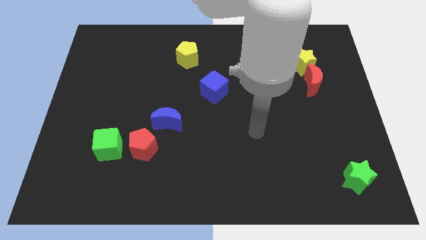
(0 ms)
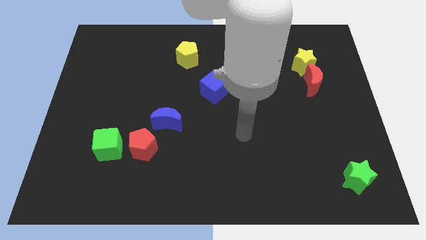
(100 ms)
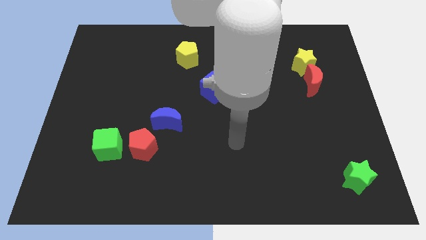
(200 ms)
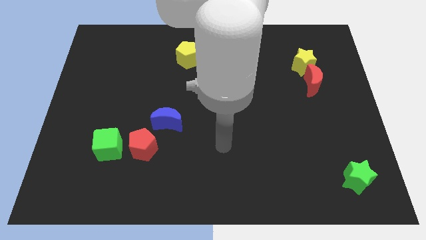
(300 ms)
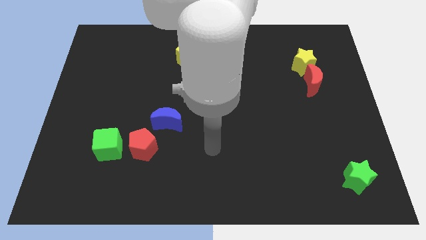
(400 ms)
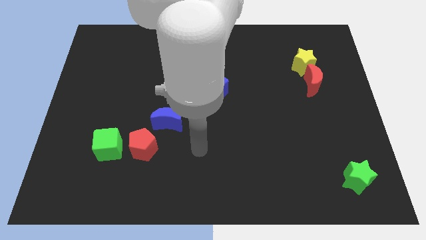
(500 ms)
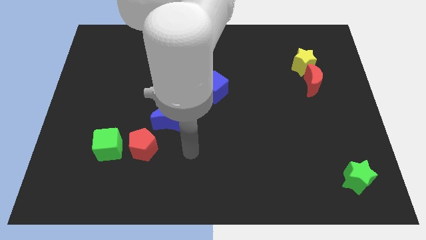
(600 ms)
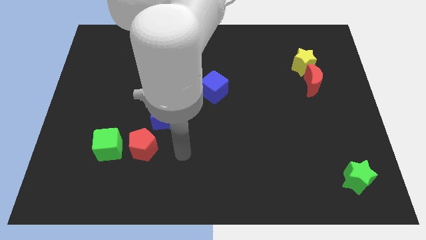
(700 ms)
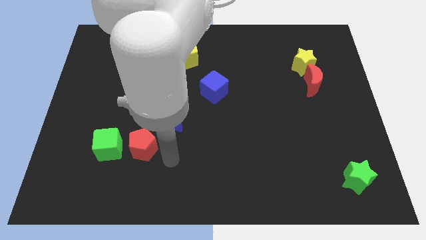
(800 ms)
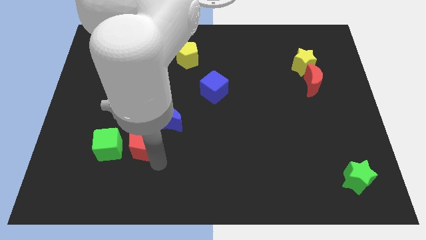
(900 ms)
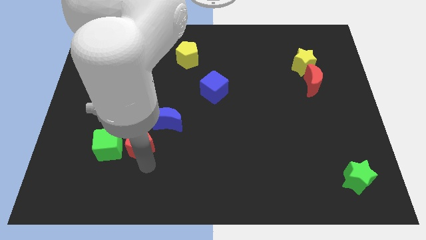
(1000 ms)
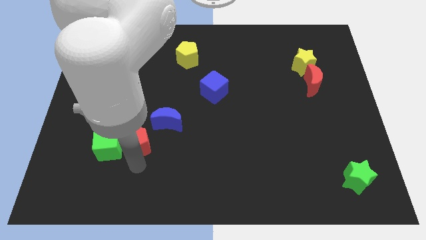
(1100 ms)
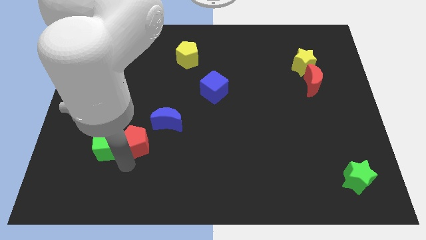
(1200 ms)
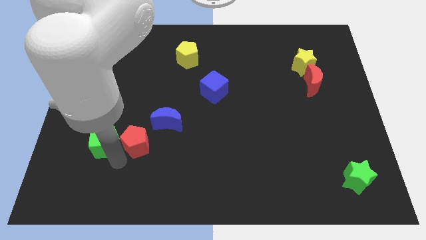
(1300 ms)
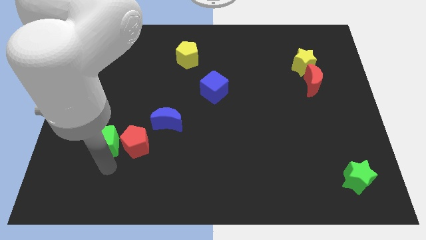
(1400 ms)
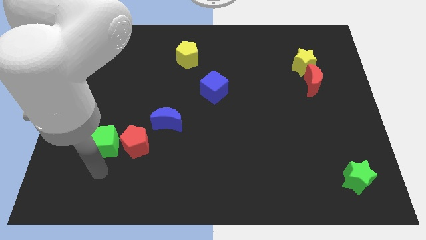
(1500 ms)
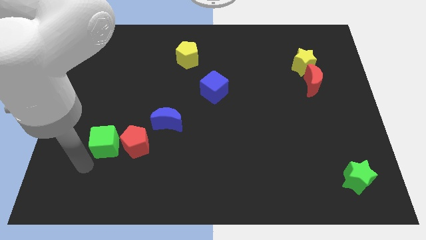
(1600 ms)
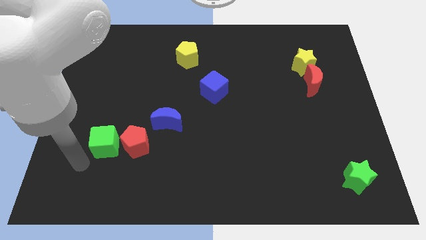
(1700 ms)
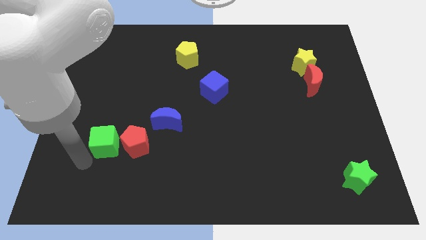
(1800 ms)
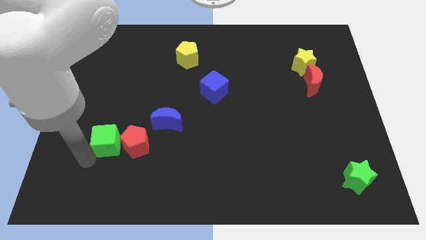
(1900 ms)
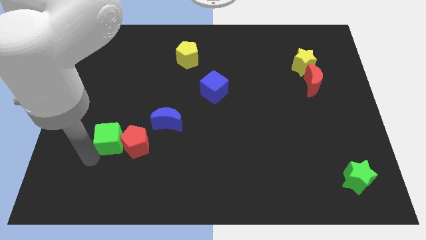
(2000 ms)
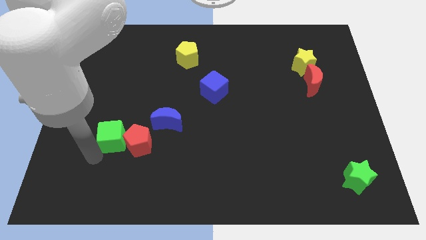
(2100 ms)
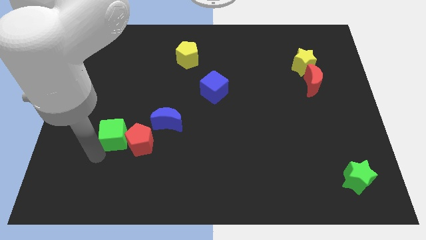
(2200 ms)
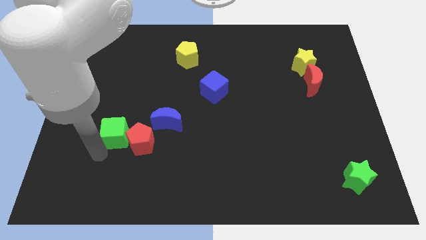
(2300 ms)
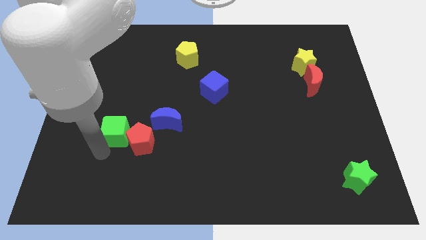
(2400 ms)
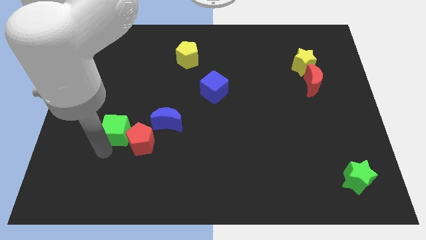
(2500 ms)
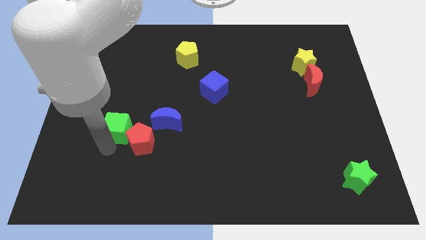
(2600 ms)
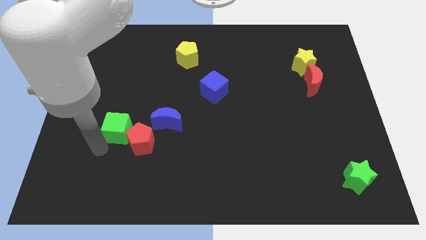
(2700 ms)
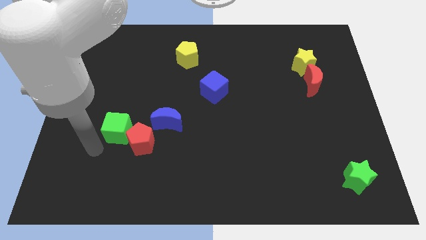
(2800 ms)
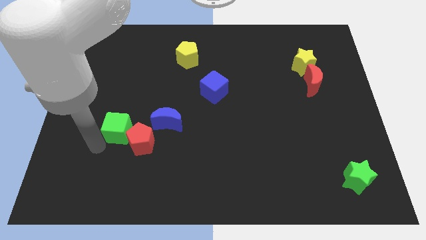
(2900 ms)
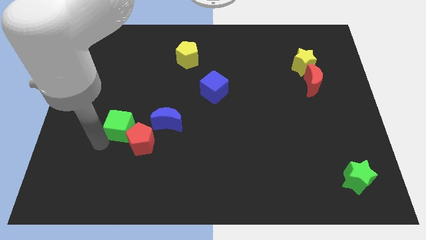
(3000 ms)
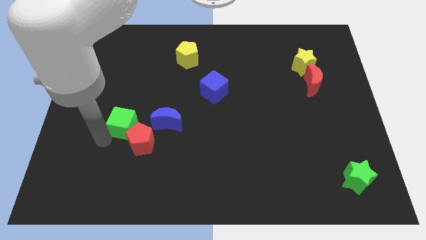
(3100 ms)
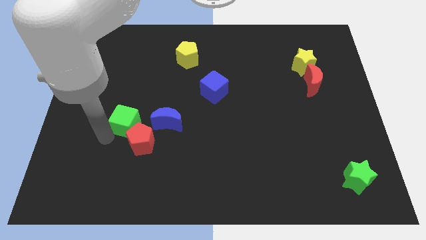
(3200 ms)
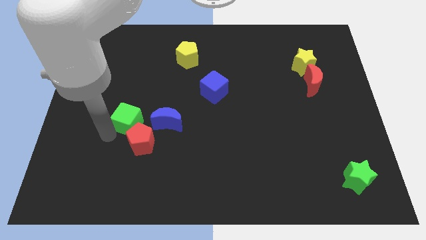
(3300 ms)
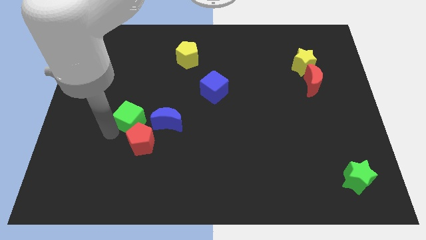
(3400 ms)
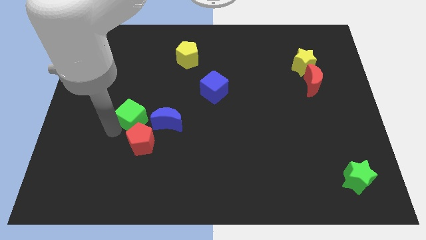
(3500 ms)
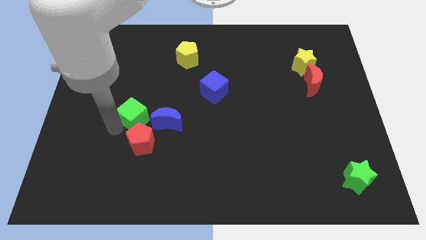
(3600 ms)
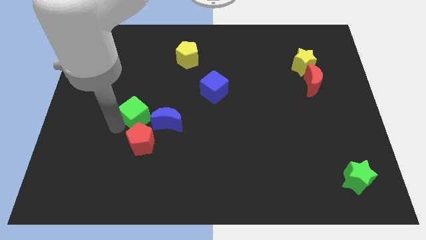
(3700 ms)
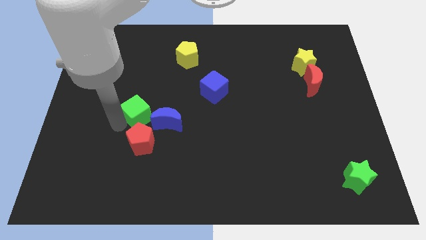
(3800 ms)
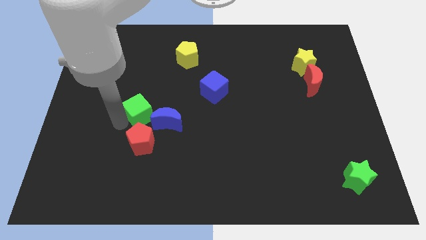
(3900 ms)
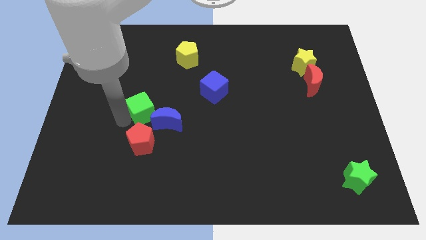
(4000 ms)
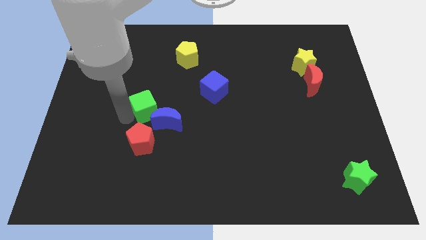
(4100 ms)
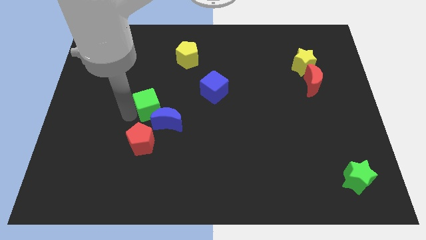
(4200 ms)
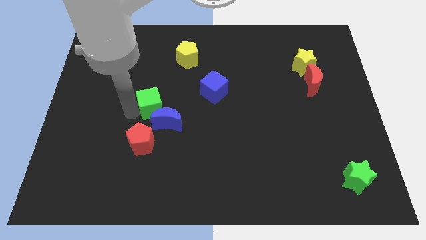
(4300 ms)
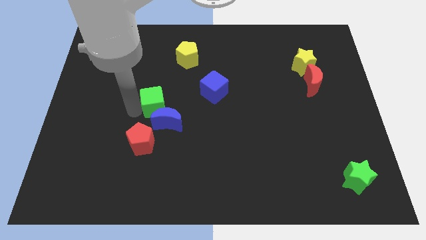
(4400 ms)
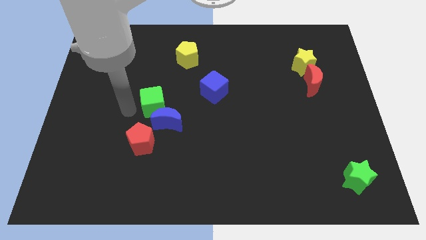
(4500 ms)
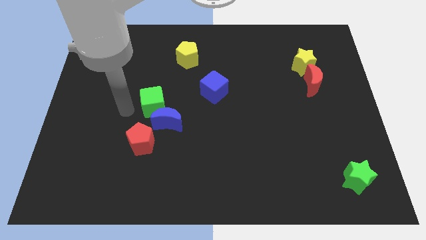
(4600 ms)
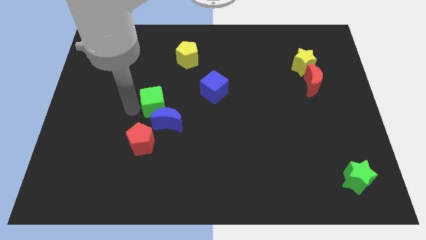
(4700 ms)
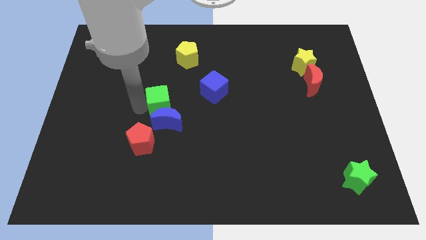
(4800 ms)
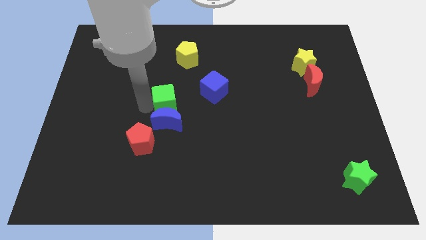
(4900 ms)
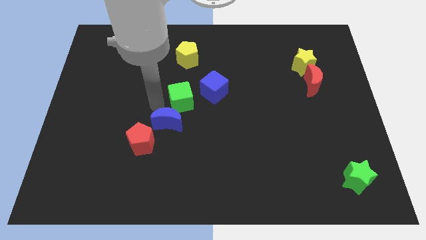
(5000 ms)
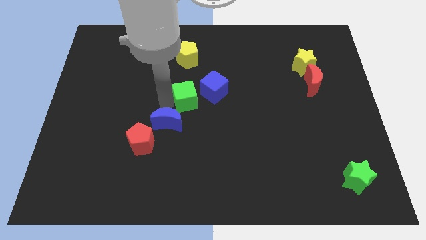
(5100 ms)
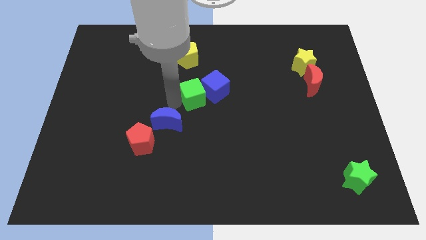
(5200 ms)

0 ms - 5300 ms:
put the green cube towards the blue cube

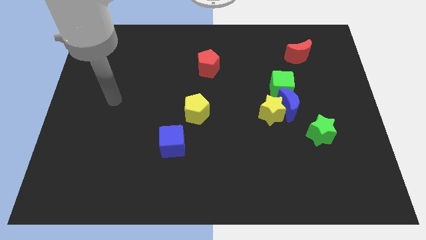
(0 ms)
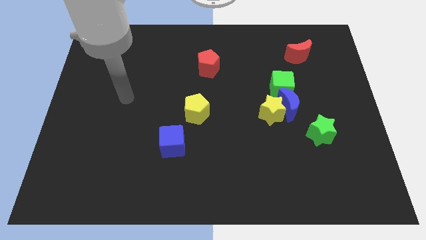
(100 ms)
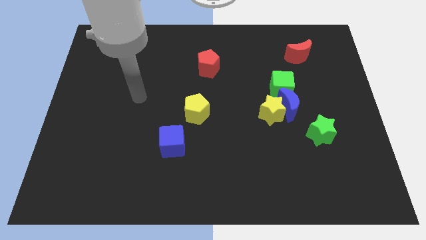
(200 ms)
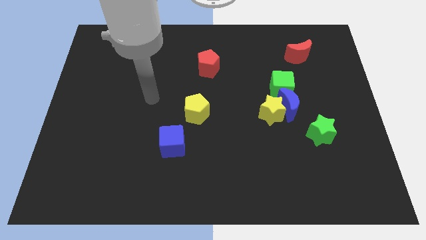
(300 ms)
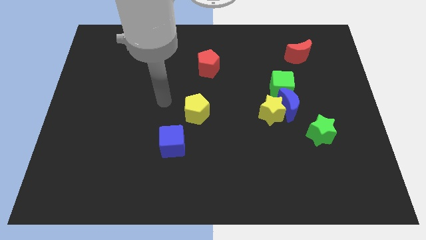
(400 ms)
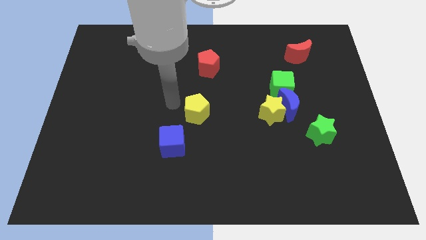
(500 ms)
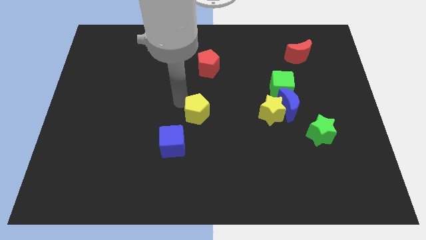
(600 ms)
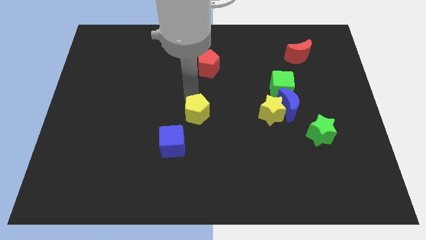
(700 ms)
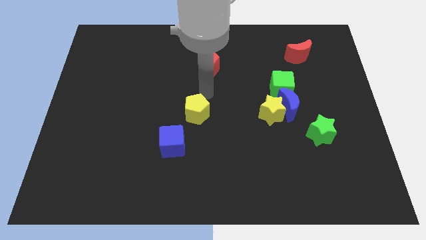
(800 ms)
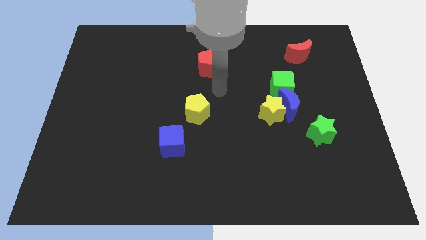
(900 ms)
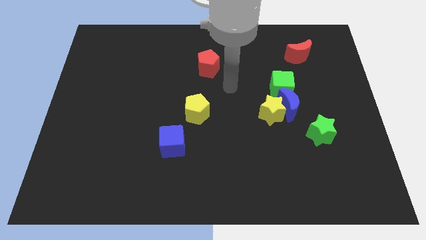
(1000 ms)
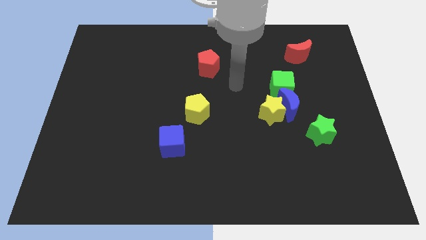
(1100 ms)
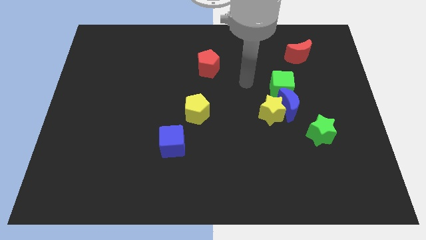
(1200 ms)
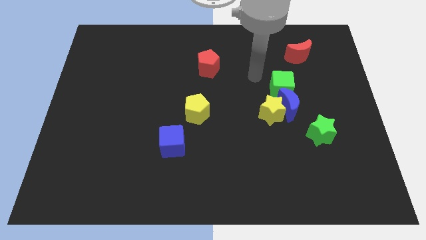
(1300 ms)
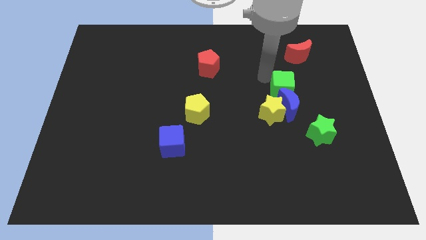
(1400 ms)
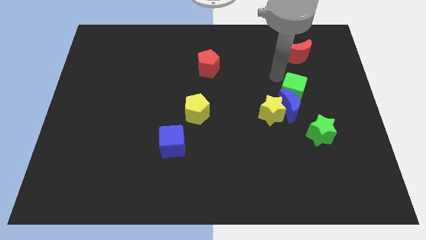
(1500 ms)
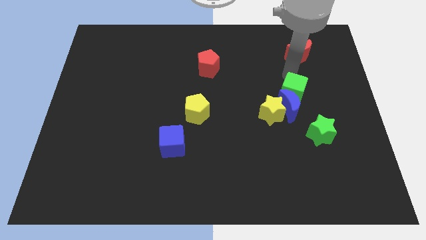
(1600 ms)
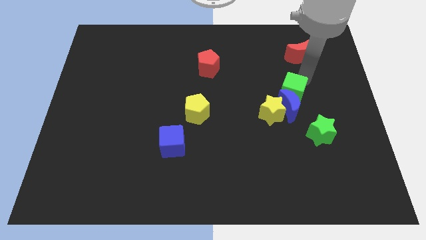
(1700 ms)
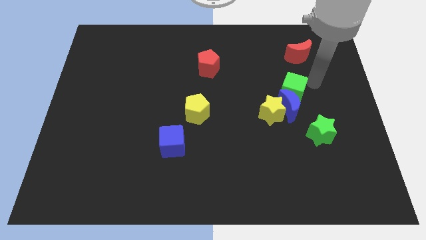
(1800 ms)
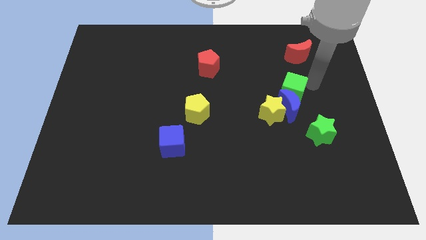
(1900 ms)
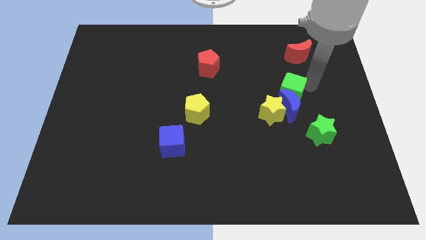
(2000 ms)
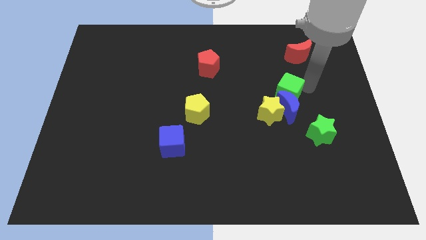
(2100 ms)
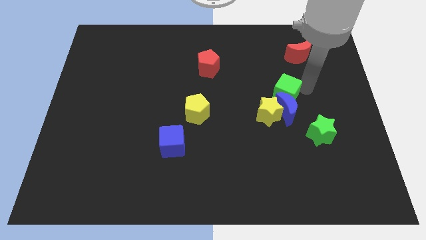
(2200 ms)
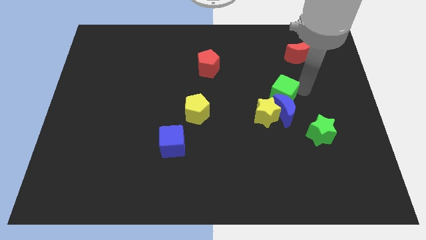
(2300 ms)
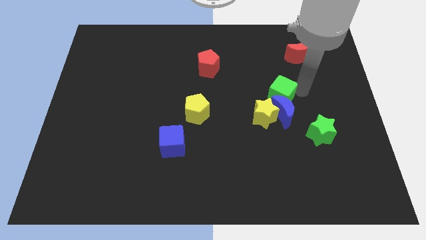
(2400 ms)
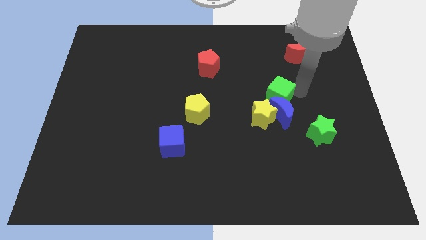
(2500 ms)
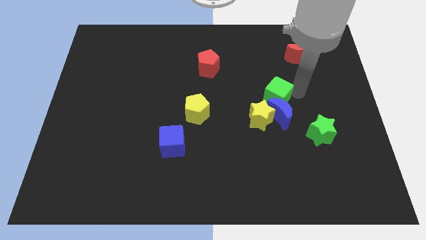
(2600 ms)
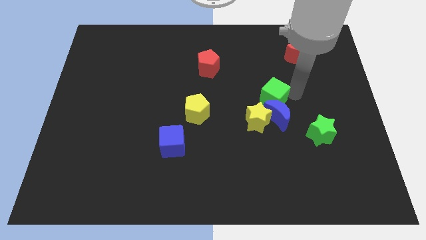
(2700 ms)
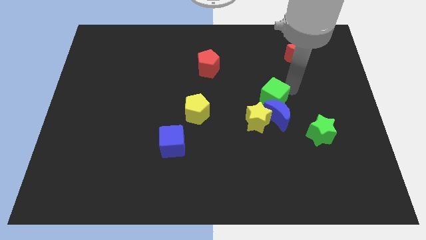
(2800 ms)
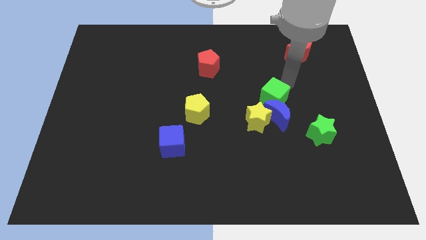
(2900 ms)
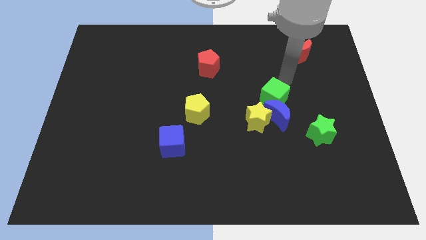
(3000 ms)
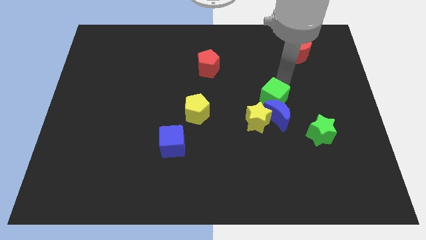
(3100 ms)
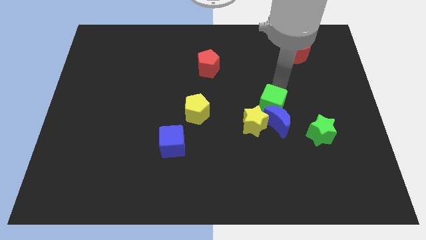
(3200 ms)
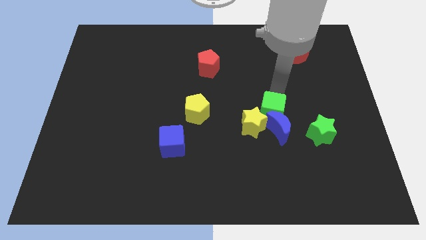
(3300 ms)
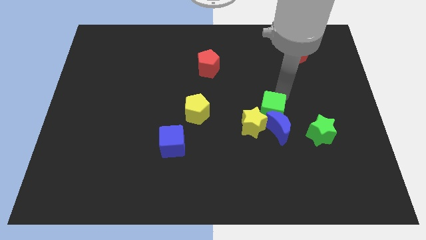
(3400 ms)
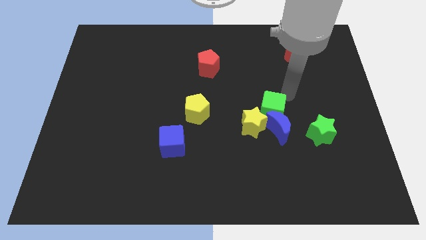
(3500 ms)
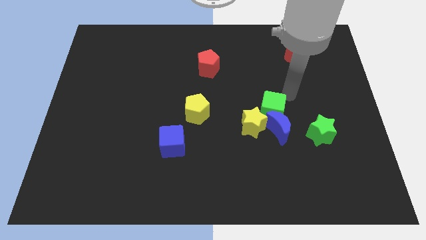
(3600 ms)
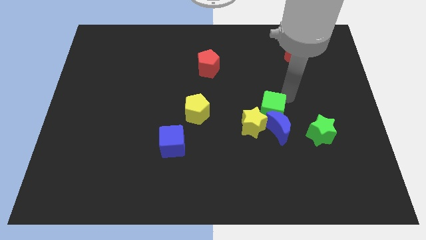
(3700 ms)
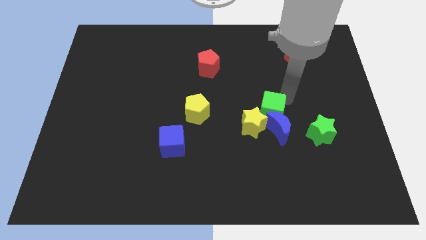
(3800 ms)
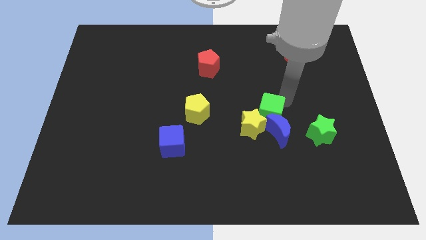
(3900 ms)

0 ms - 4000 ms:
put the green cube to the yellow star
